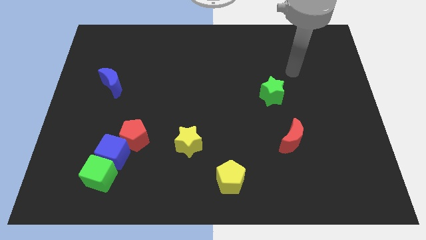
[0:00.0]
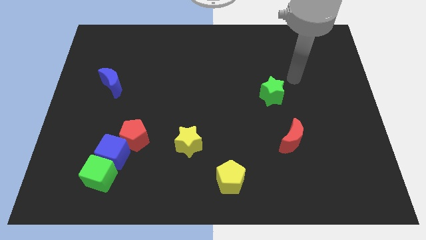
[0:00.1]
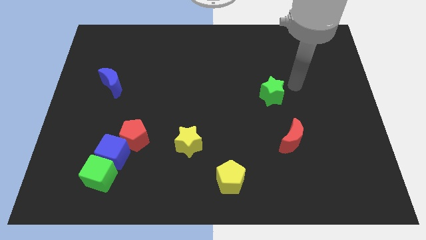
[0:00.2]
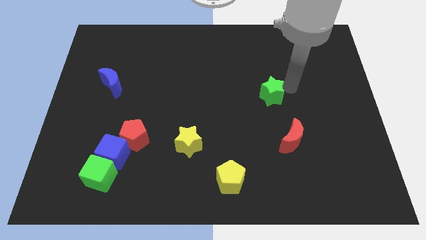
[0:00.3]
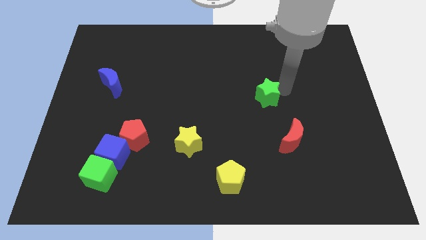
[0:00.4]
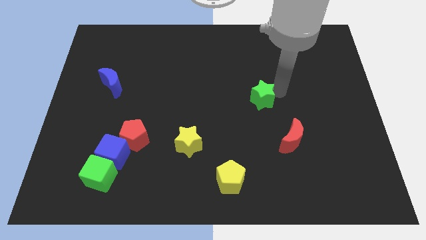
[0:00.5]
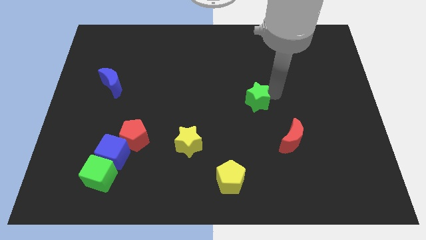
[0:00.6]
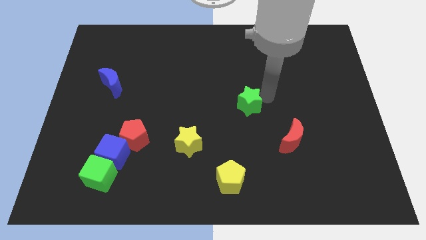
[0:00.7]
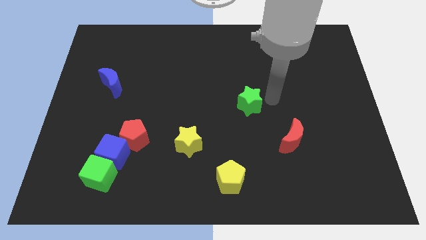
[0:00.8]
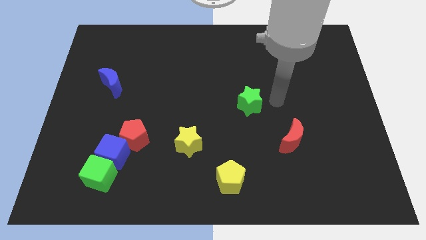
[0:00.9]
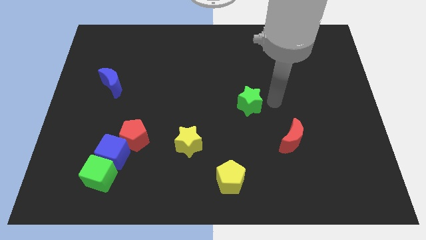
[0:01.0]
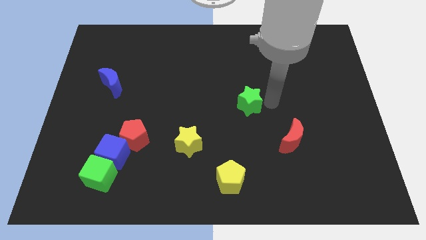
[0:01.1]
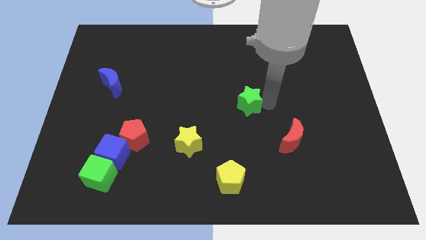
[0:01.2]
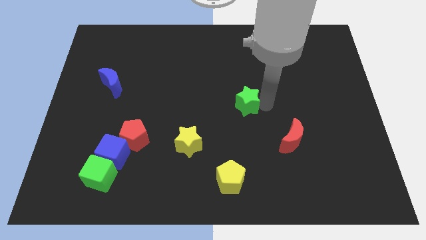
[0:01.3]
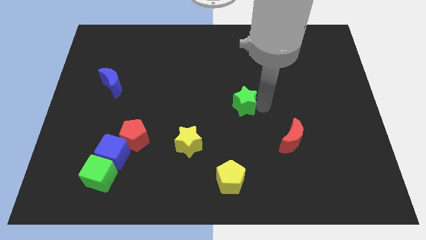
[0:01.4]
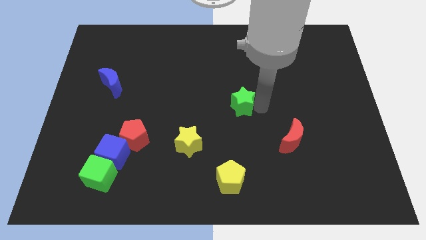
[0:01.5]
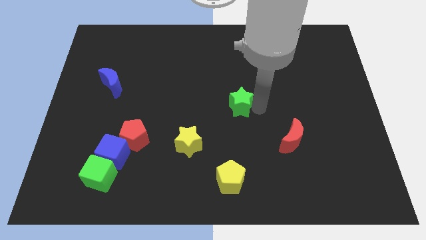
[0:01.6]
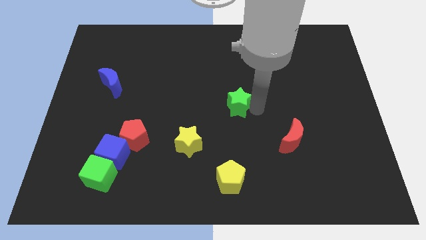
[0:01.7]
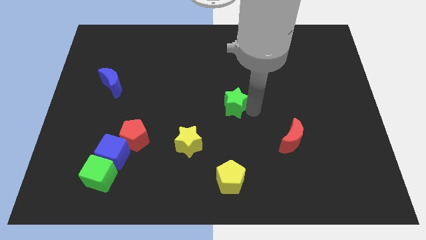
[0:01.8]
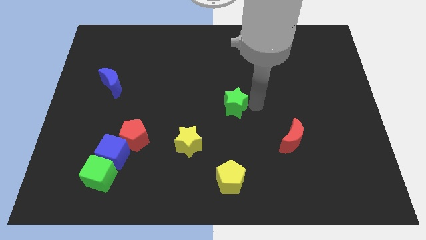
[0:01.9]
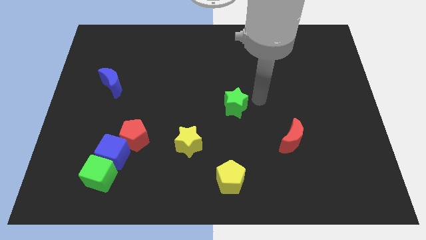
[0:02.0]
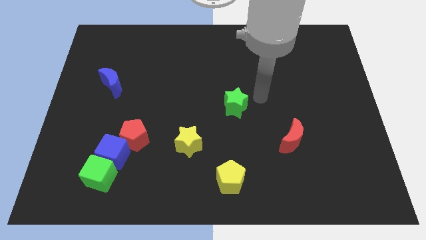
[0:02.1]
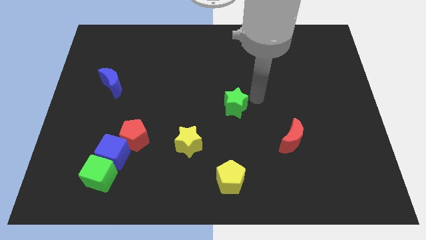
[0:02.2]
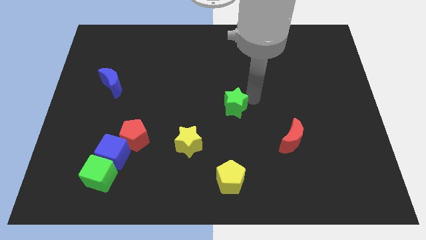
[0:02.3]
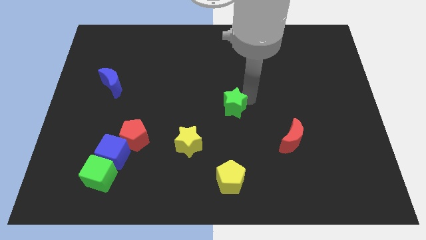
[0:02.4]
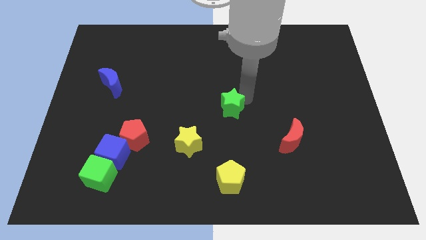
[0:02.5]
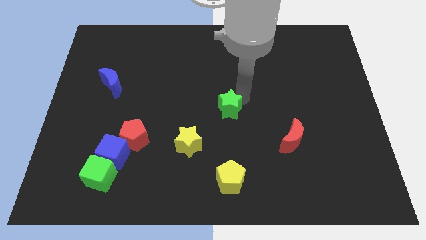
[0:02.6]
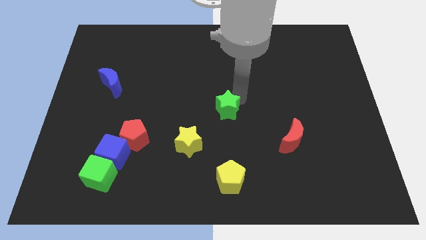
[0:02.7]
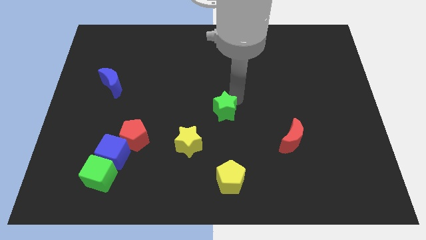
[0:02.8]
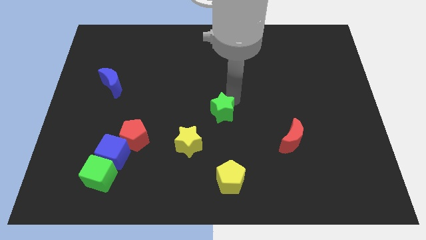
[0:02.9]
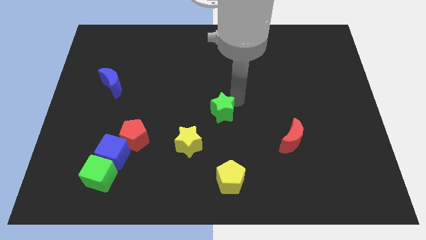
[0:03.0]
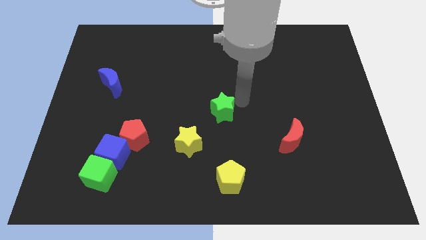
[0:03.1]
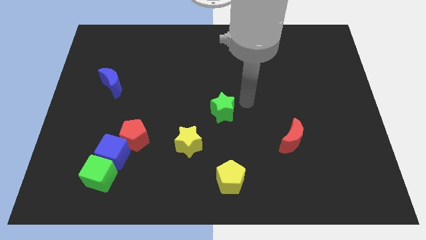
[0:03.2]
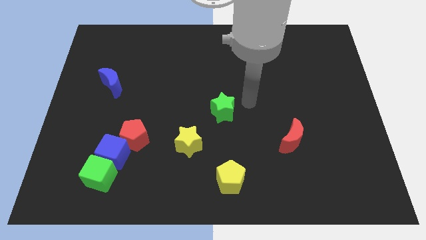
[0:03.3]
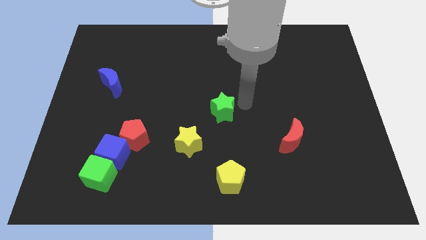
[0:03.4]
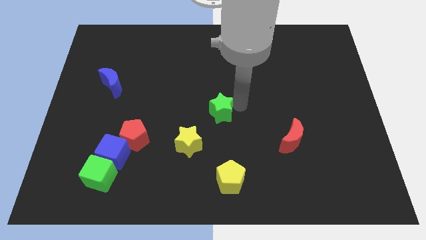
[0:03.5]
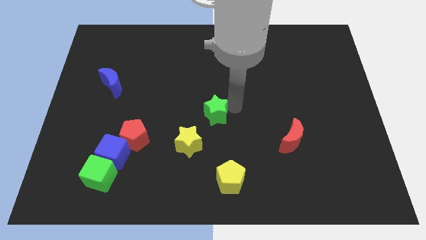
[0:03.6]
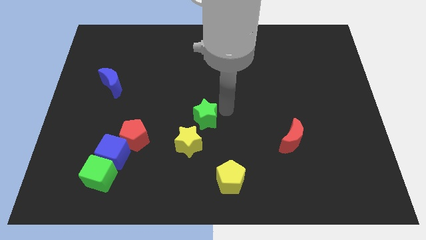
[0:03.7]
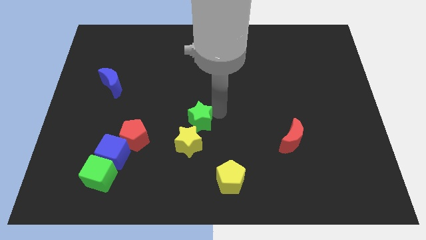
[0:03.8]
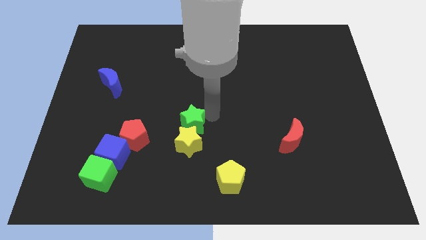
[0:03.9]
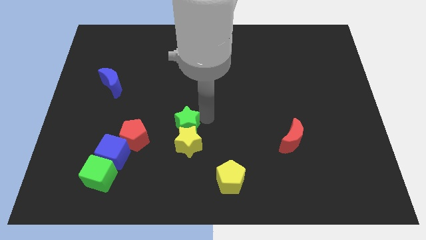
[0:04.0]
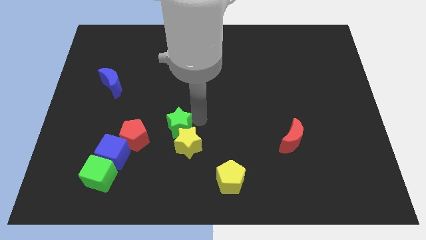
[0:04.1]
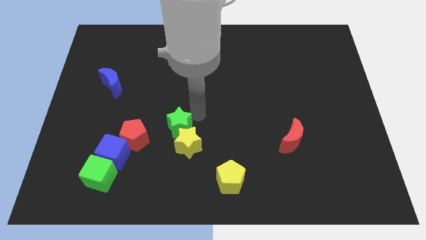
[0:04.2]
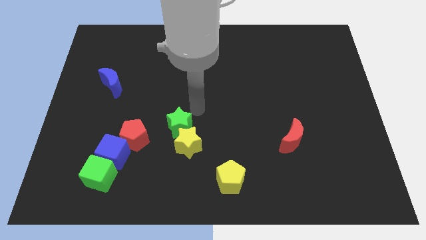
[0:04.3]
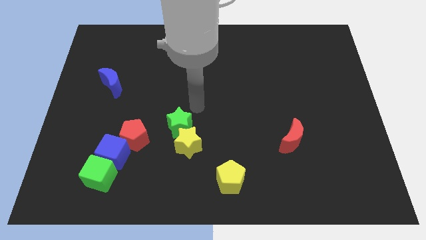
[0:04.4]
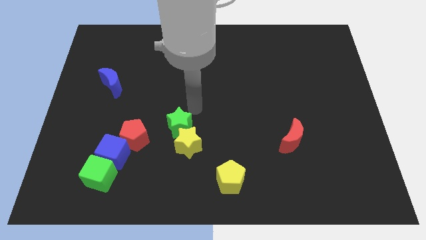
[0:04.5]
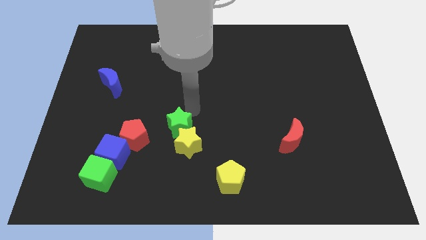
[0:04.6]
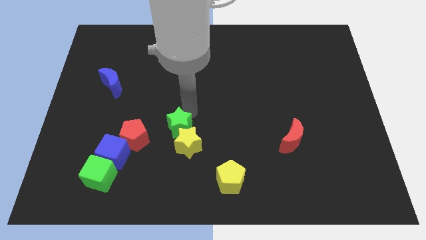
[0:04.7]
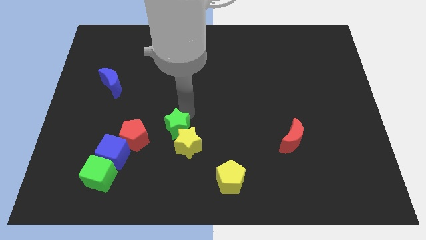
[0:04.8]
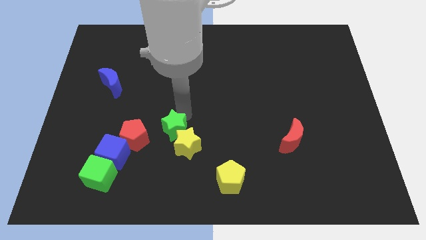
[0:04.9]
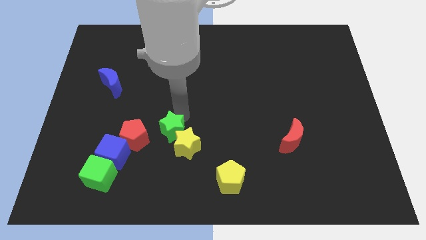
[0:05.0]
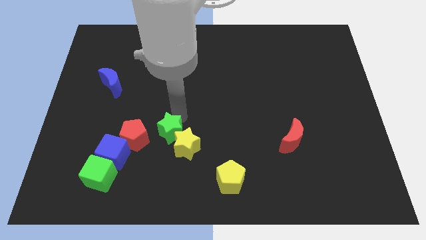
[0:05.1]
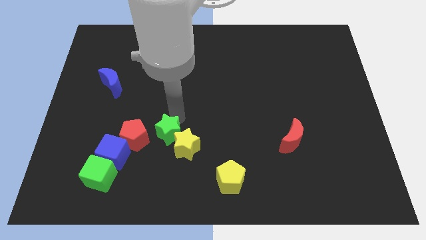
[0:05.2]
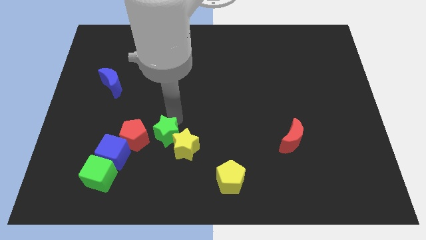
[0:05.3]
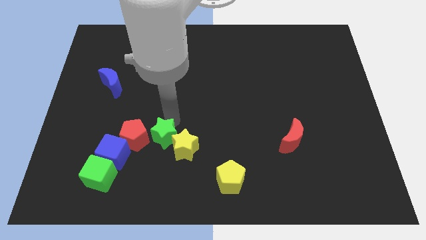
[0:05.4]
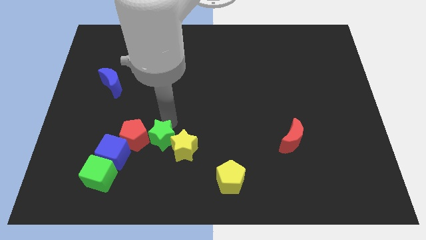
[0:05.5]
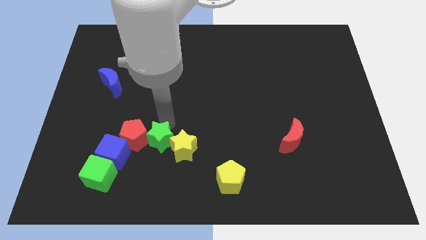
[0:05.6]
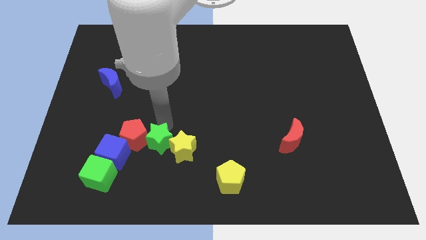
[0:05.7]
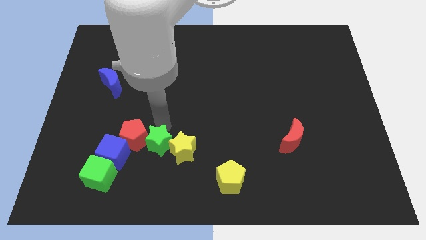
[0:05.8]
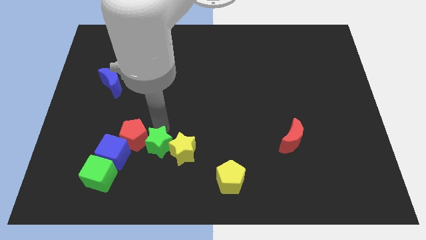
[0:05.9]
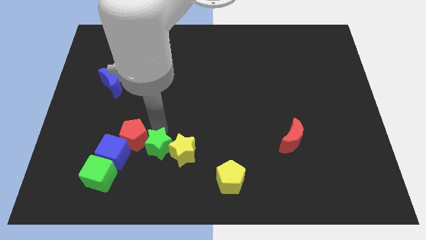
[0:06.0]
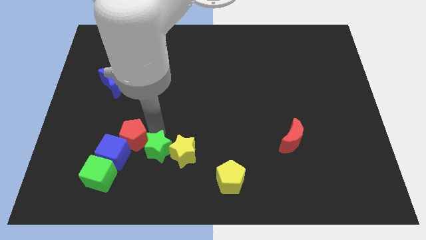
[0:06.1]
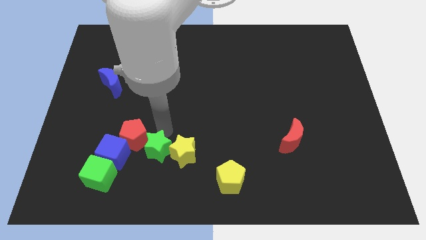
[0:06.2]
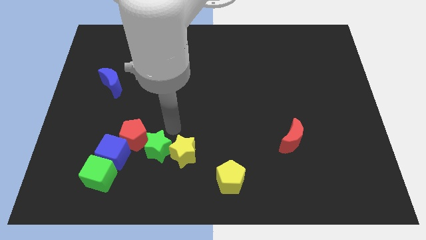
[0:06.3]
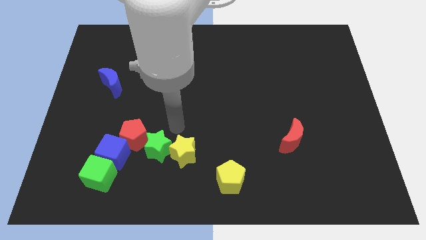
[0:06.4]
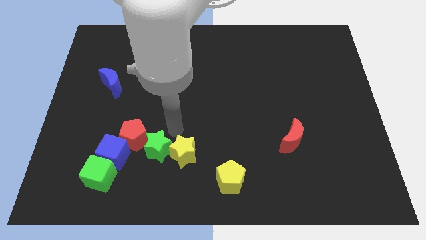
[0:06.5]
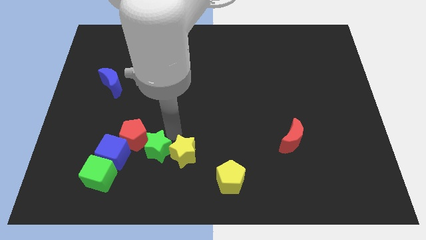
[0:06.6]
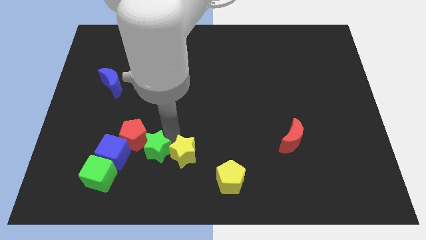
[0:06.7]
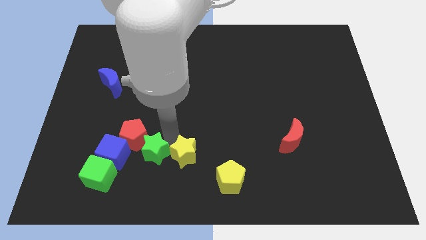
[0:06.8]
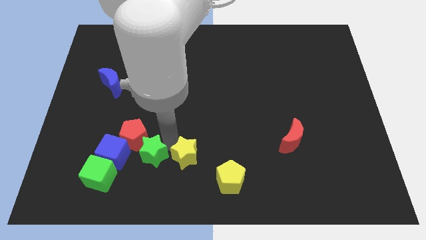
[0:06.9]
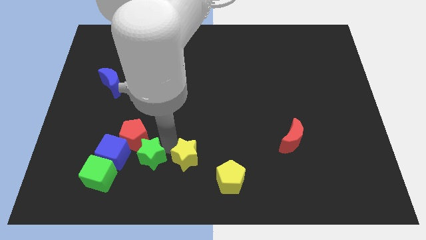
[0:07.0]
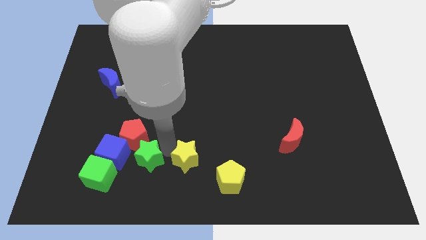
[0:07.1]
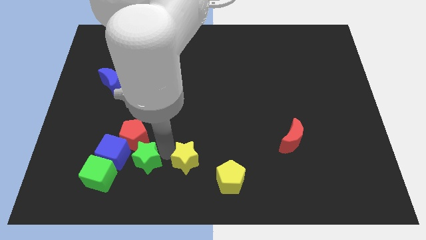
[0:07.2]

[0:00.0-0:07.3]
slide the green star to the bottom right side of the blue cube
